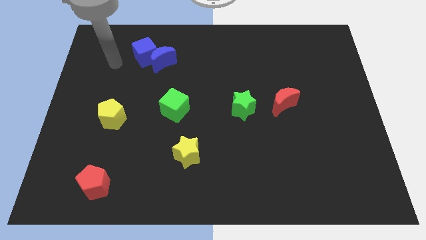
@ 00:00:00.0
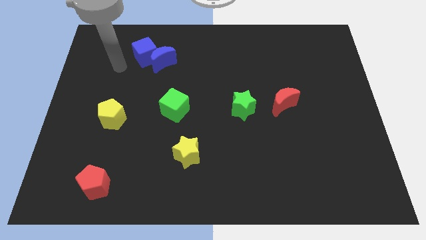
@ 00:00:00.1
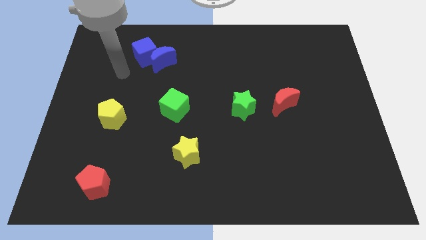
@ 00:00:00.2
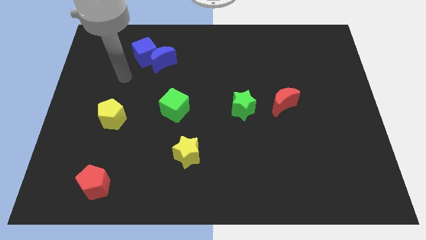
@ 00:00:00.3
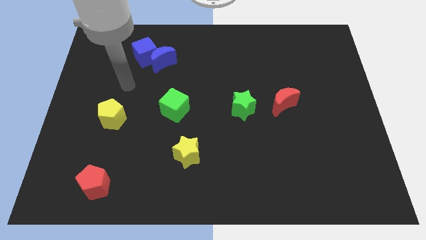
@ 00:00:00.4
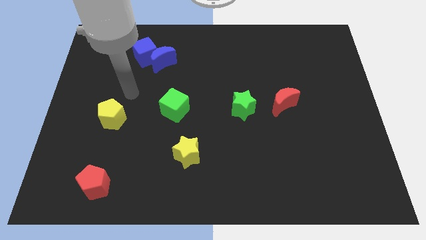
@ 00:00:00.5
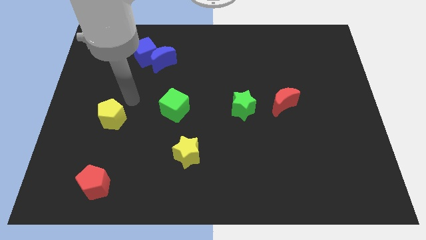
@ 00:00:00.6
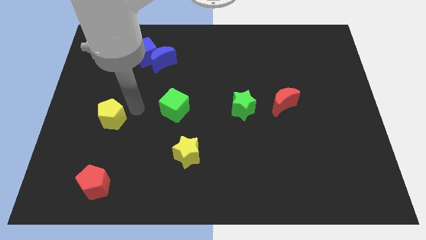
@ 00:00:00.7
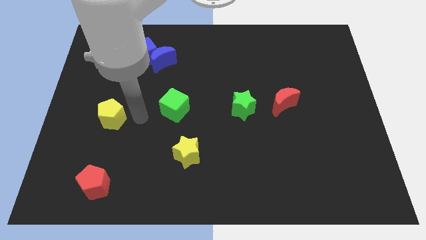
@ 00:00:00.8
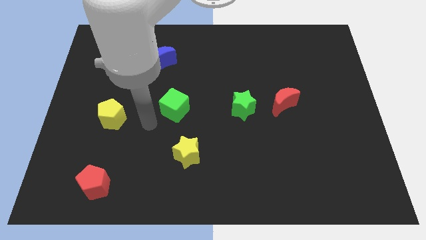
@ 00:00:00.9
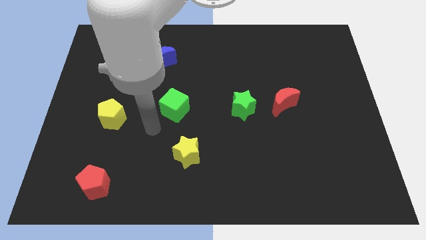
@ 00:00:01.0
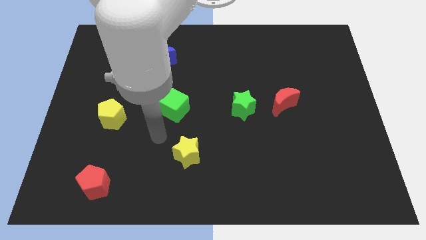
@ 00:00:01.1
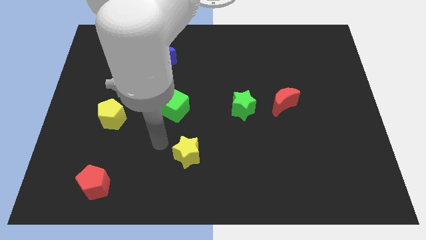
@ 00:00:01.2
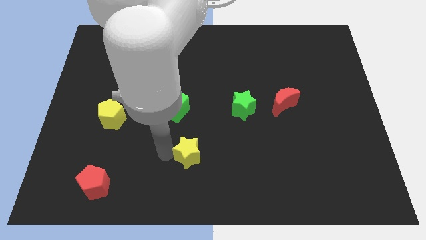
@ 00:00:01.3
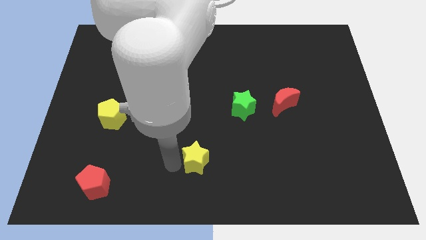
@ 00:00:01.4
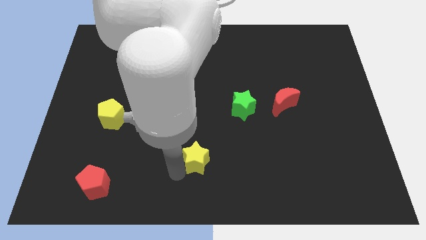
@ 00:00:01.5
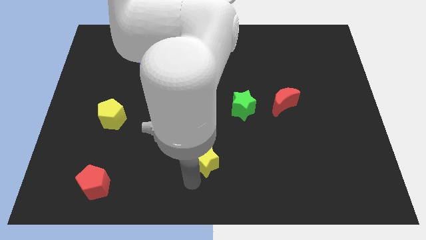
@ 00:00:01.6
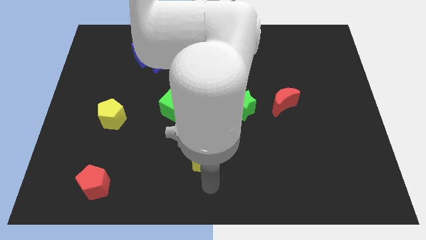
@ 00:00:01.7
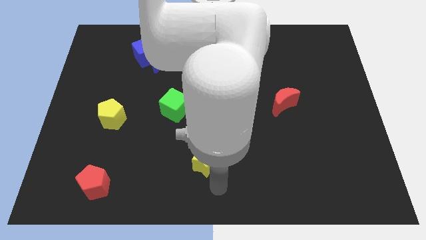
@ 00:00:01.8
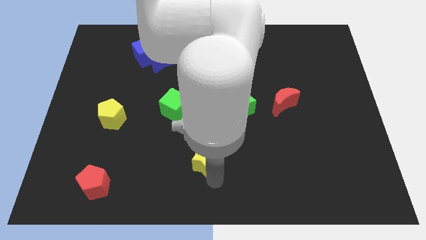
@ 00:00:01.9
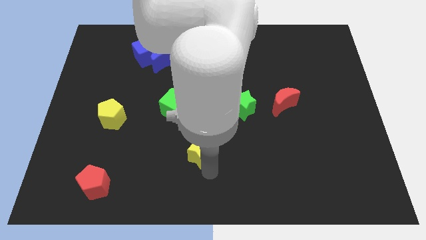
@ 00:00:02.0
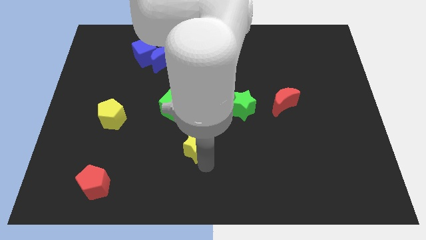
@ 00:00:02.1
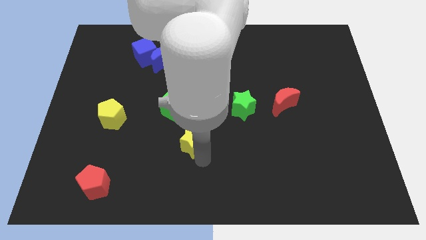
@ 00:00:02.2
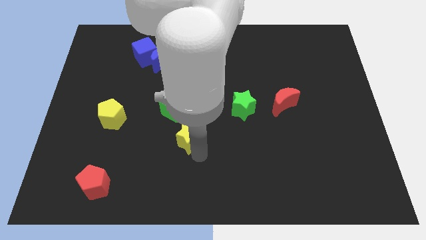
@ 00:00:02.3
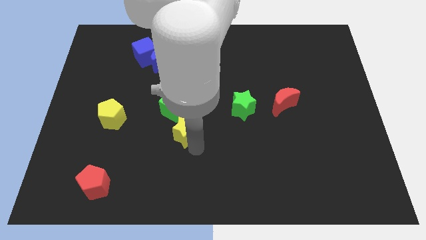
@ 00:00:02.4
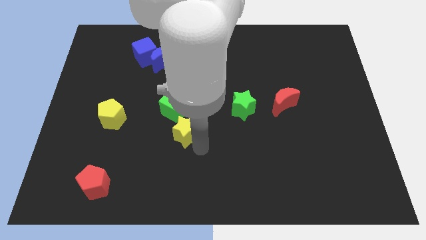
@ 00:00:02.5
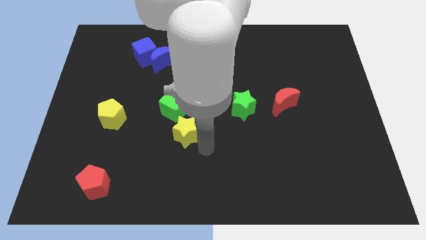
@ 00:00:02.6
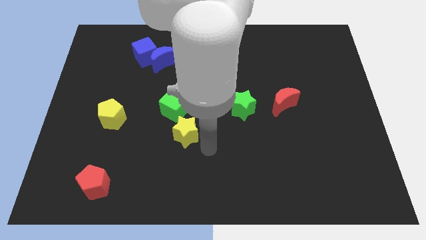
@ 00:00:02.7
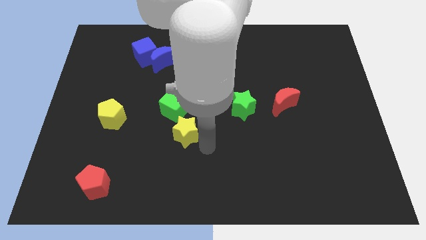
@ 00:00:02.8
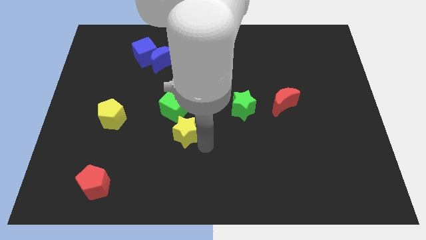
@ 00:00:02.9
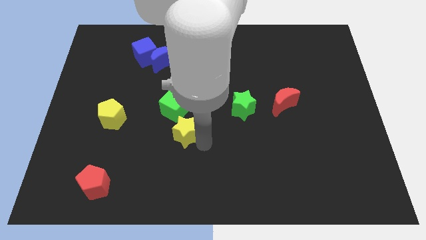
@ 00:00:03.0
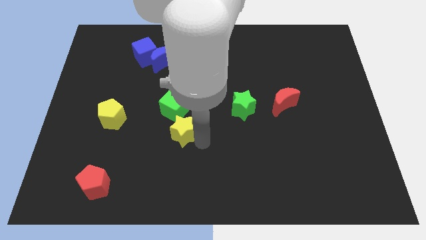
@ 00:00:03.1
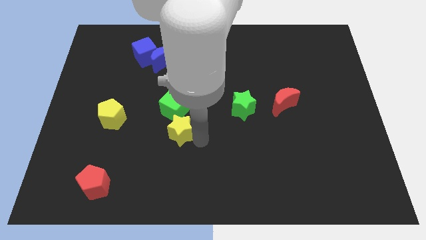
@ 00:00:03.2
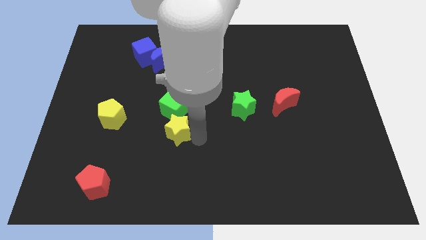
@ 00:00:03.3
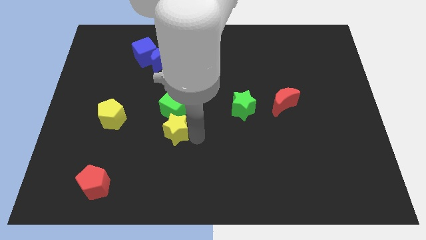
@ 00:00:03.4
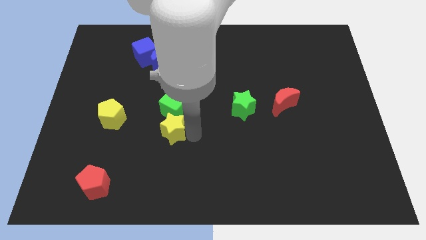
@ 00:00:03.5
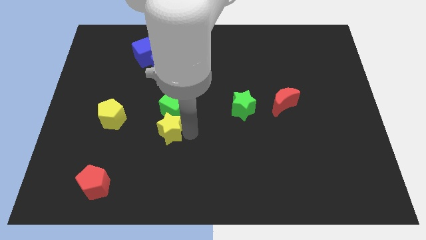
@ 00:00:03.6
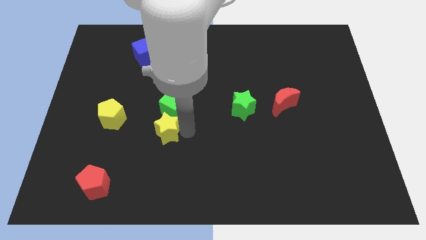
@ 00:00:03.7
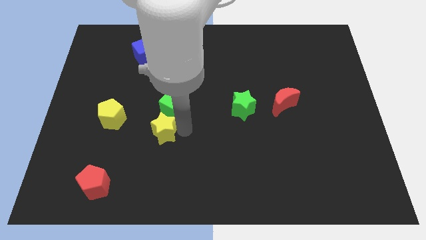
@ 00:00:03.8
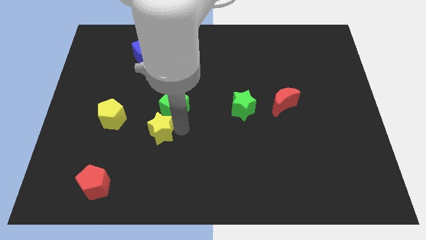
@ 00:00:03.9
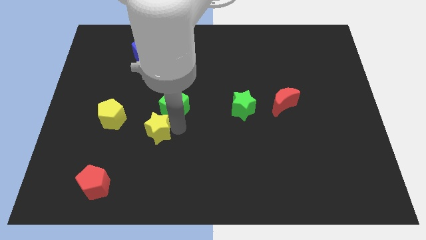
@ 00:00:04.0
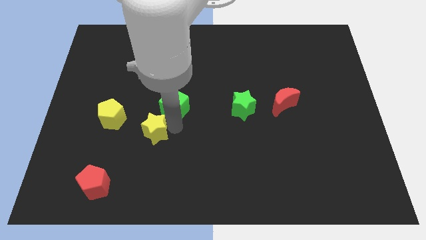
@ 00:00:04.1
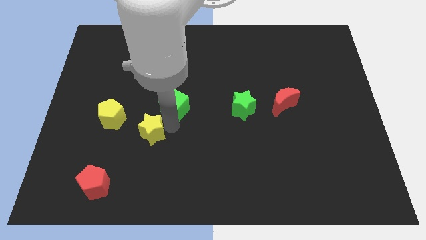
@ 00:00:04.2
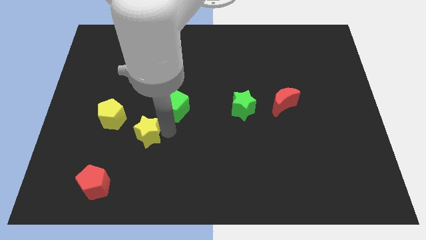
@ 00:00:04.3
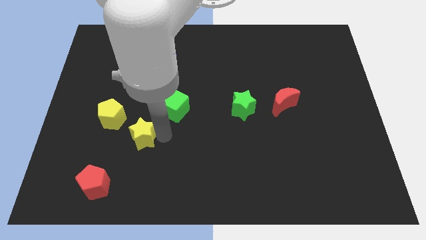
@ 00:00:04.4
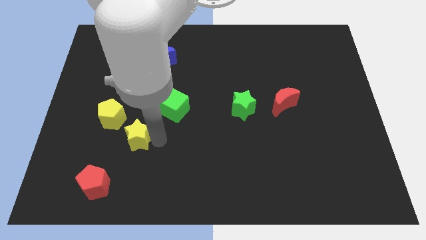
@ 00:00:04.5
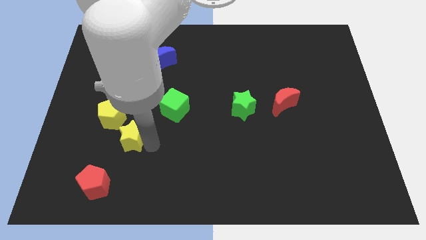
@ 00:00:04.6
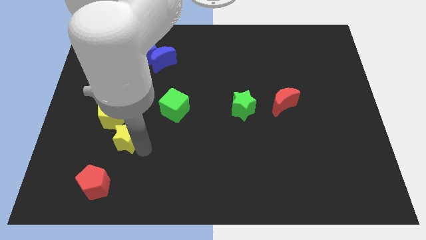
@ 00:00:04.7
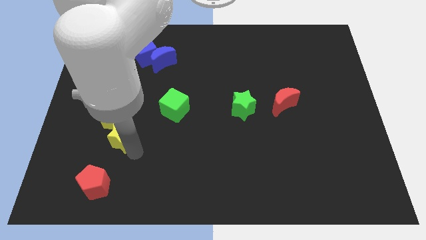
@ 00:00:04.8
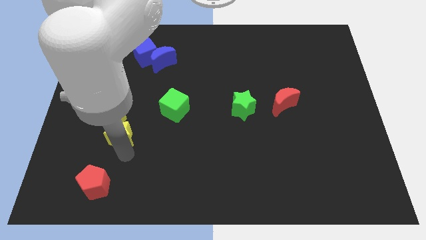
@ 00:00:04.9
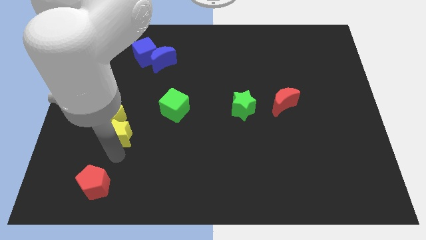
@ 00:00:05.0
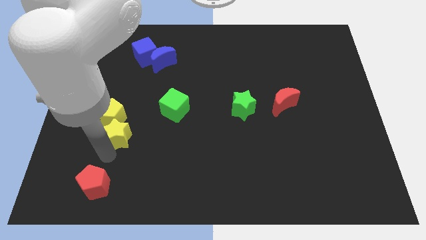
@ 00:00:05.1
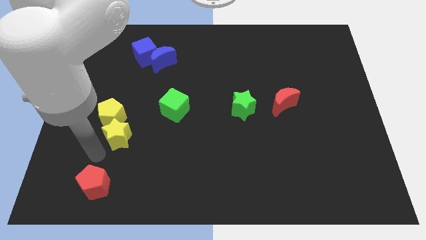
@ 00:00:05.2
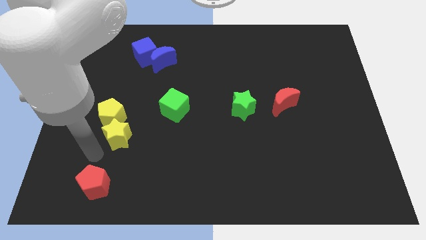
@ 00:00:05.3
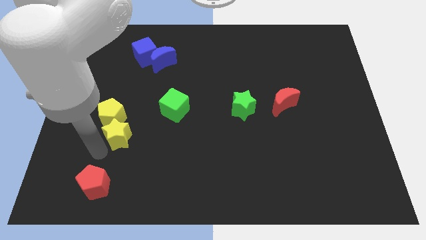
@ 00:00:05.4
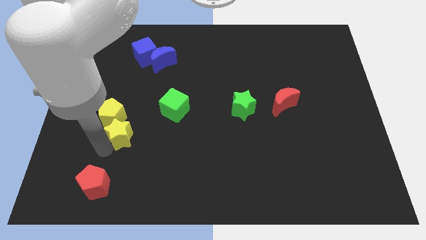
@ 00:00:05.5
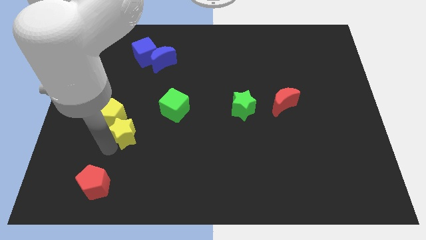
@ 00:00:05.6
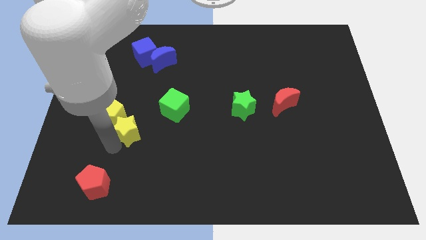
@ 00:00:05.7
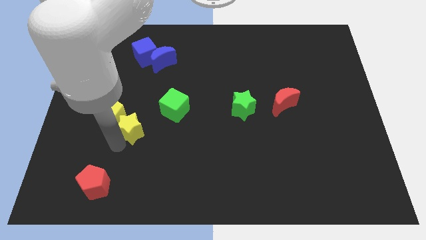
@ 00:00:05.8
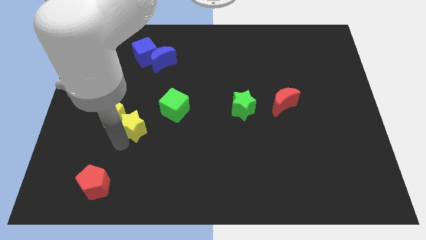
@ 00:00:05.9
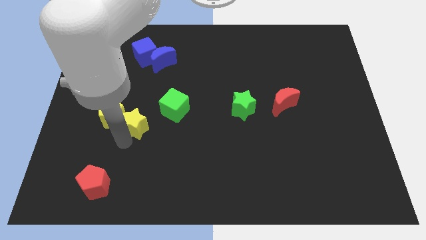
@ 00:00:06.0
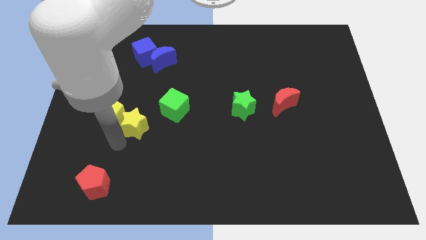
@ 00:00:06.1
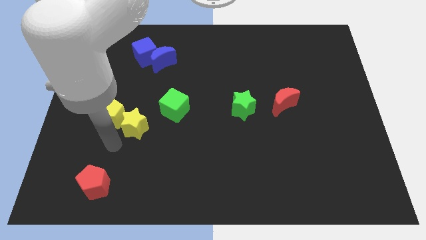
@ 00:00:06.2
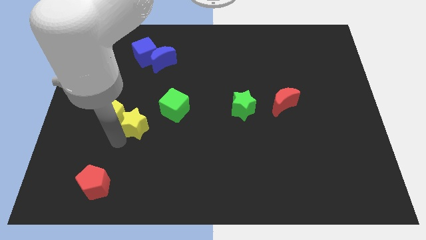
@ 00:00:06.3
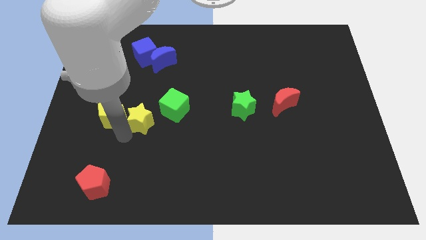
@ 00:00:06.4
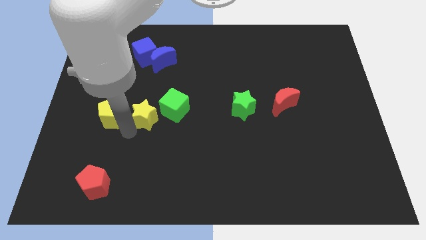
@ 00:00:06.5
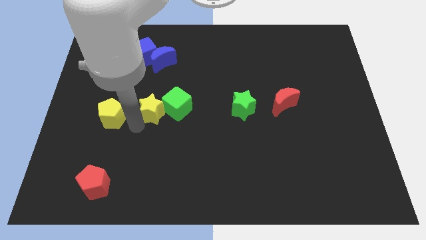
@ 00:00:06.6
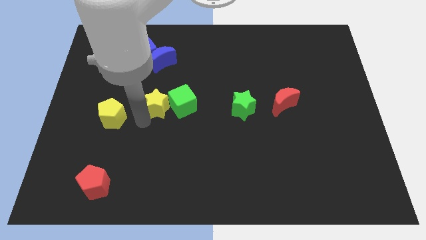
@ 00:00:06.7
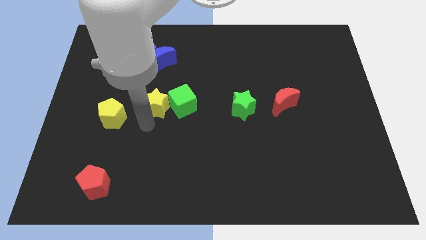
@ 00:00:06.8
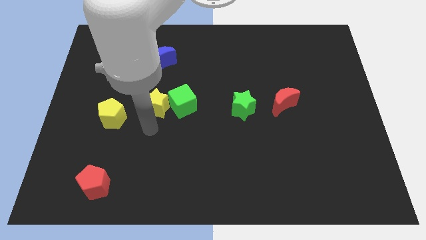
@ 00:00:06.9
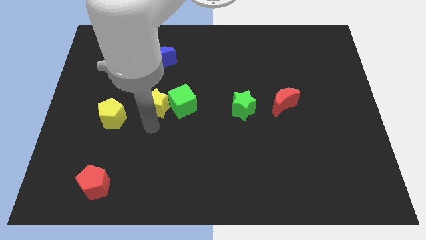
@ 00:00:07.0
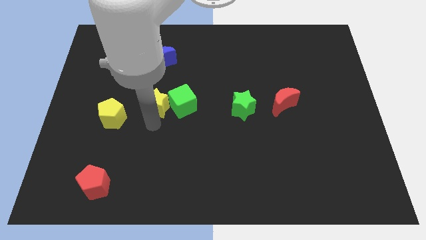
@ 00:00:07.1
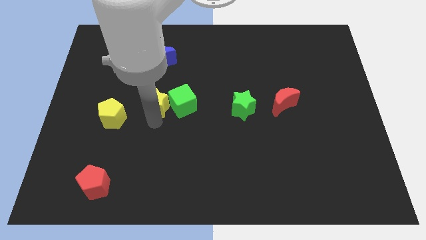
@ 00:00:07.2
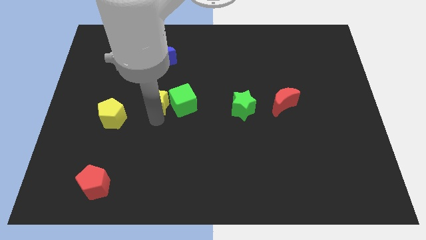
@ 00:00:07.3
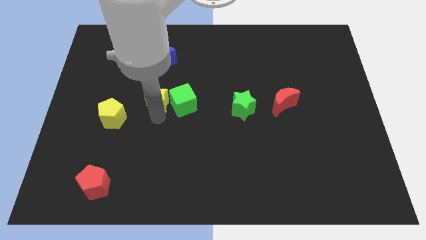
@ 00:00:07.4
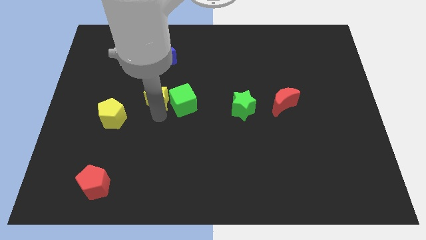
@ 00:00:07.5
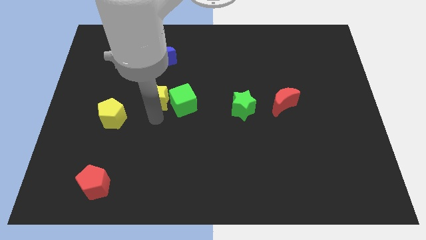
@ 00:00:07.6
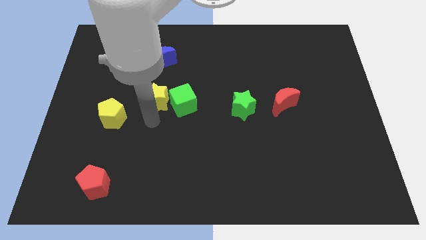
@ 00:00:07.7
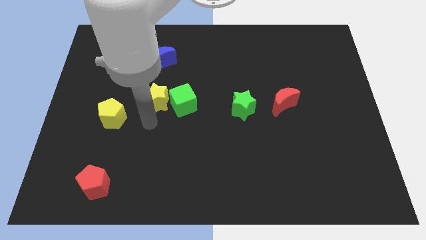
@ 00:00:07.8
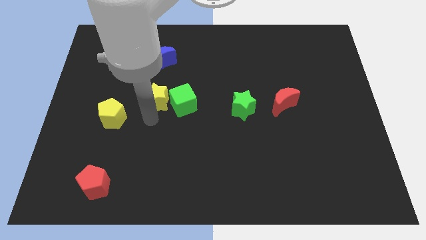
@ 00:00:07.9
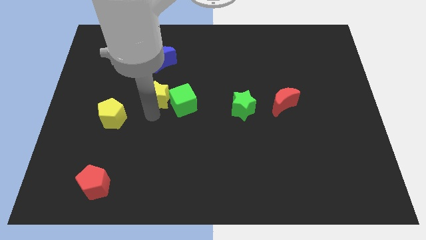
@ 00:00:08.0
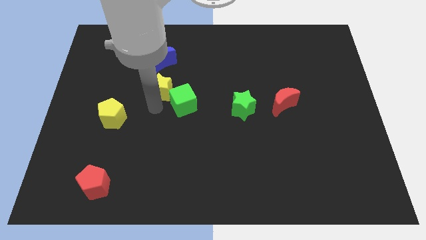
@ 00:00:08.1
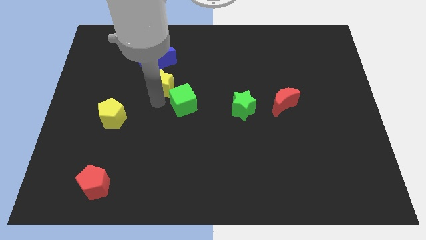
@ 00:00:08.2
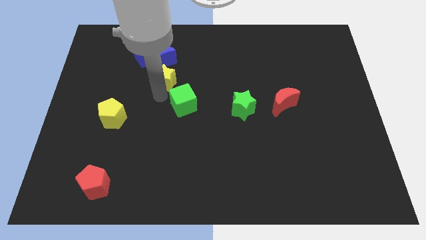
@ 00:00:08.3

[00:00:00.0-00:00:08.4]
put the yellow star to the bottom right side of the blue cube
